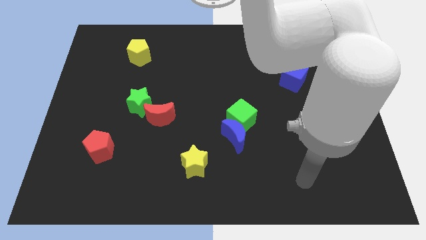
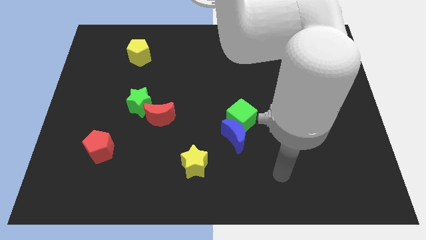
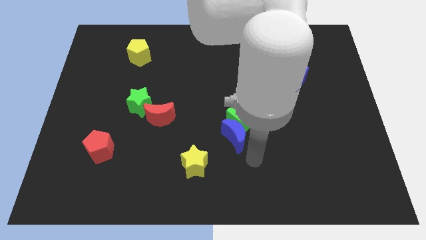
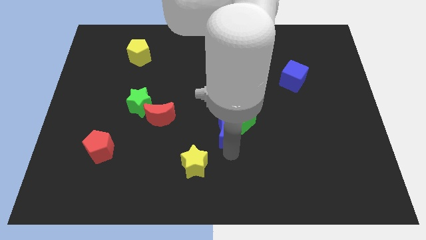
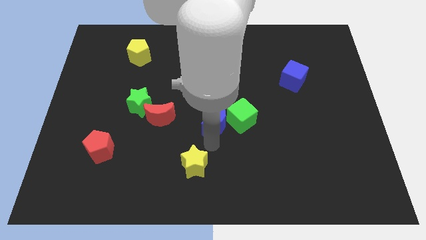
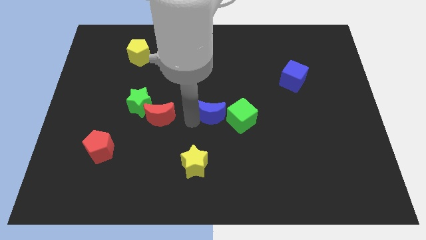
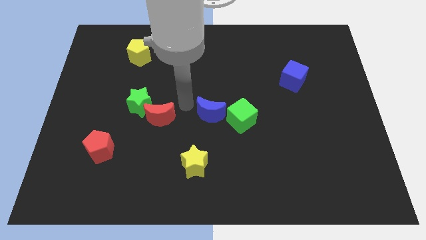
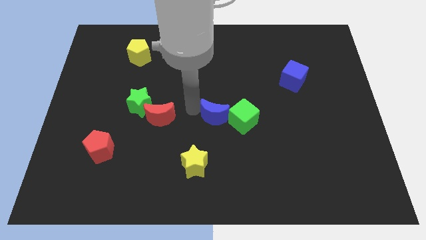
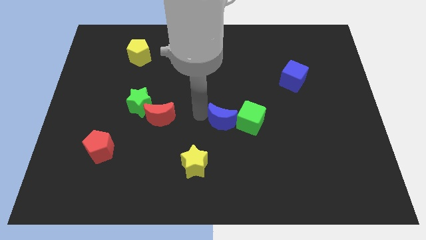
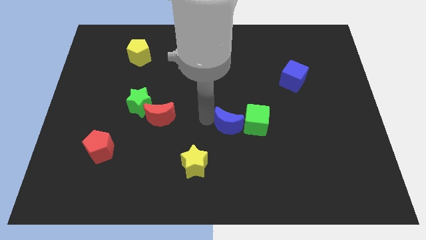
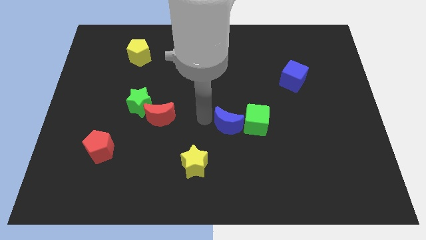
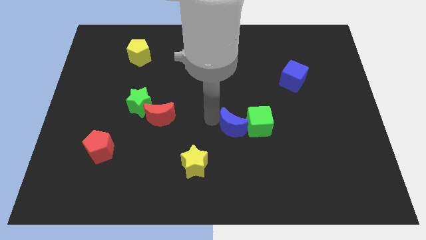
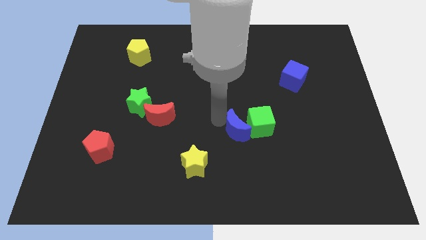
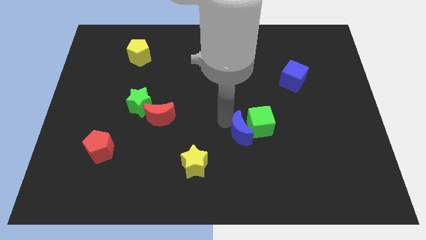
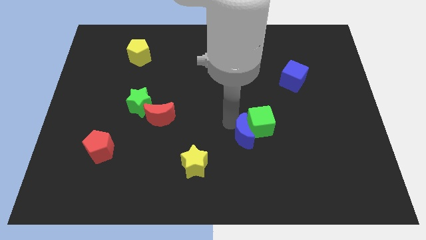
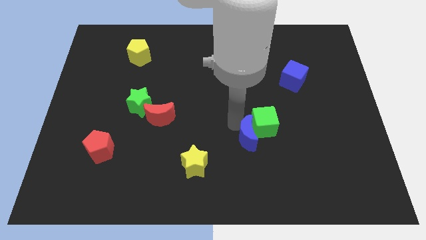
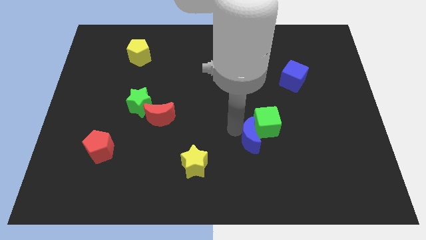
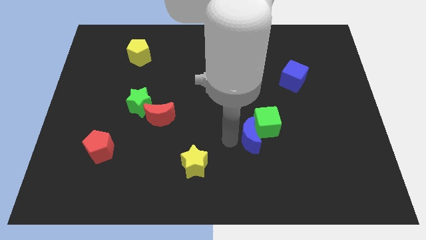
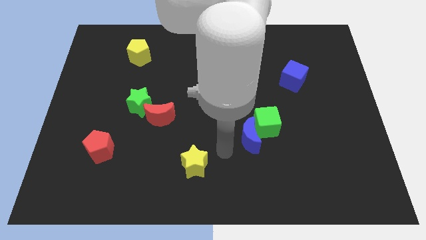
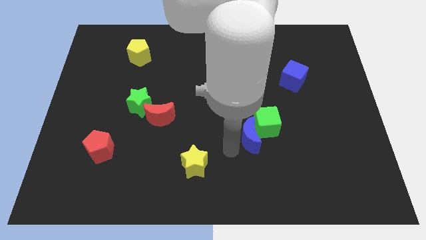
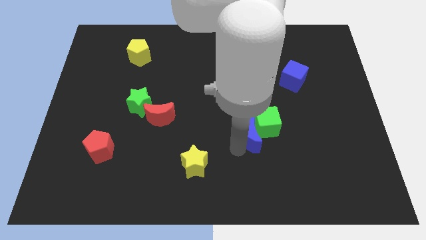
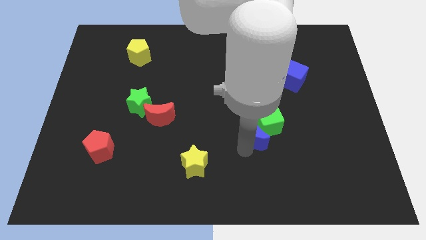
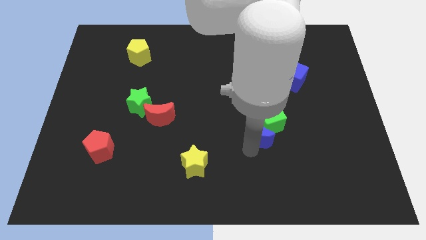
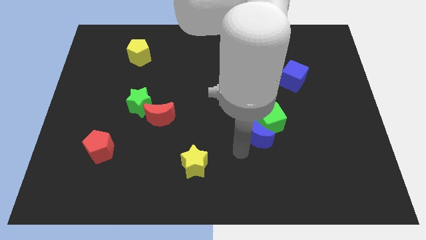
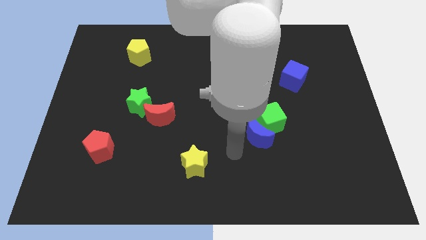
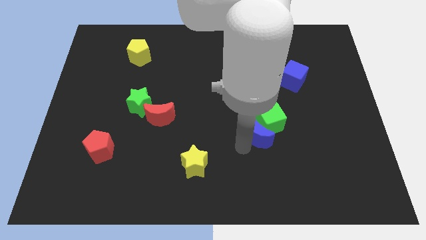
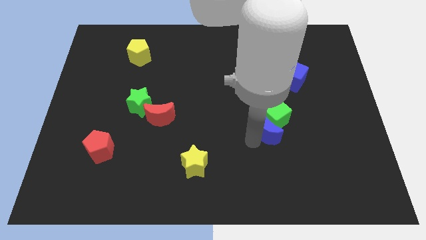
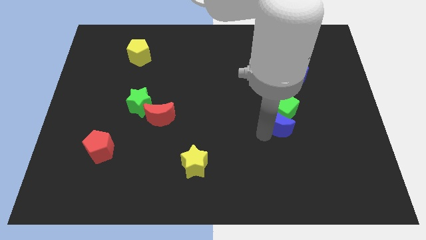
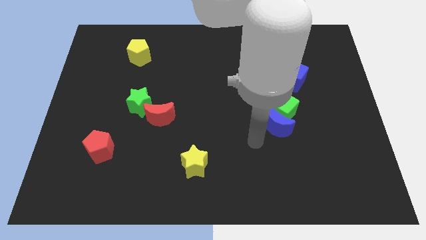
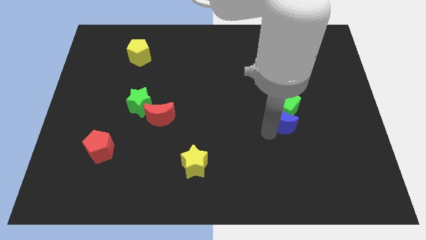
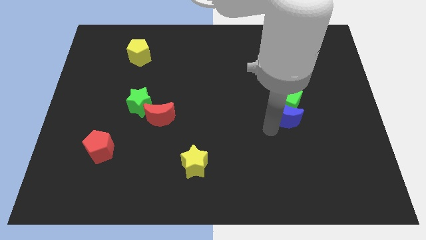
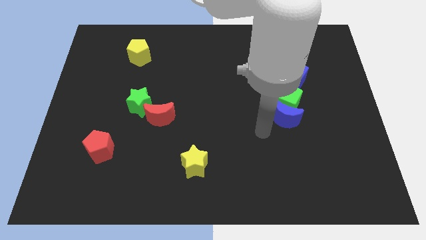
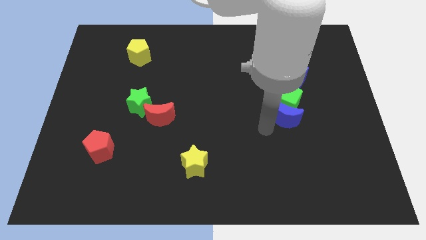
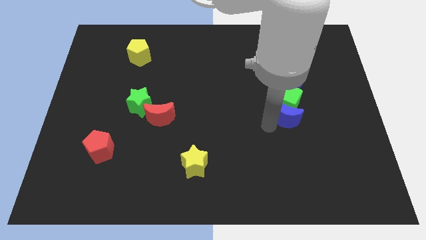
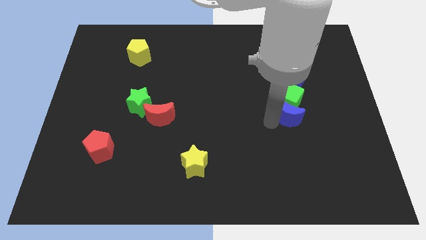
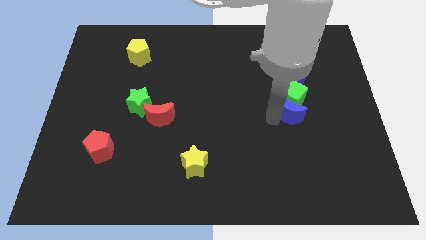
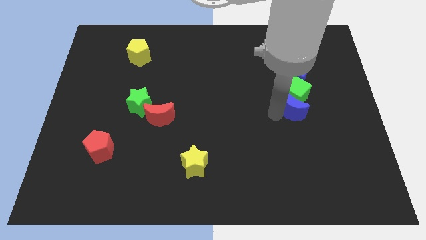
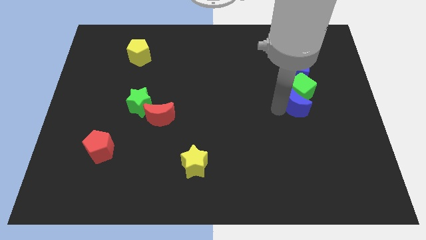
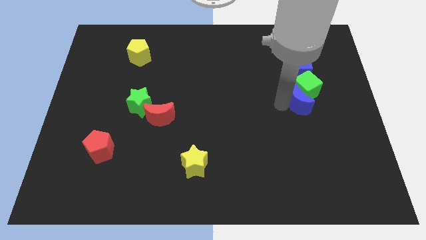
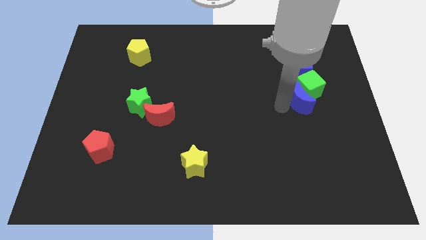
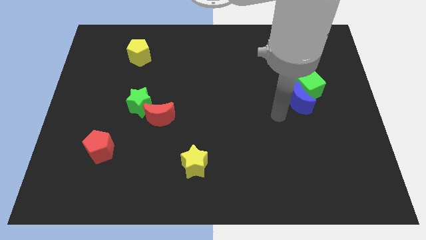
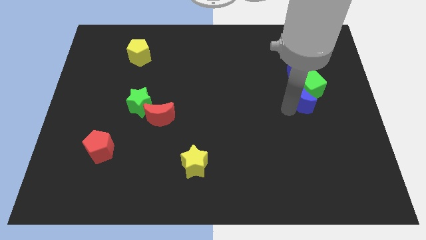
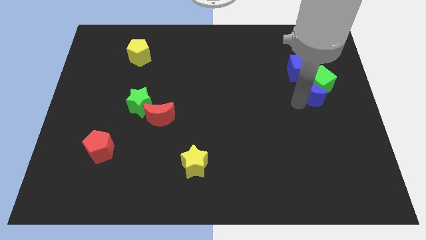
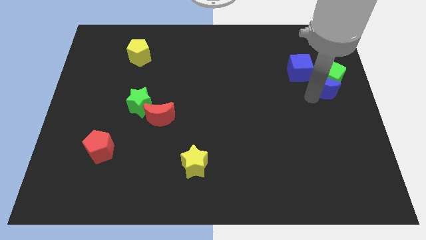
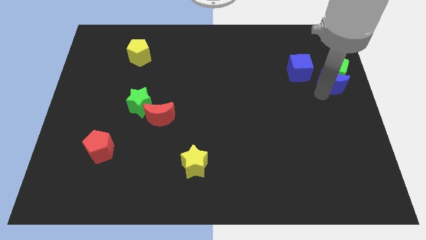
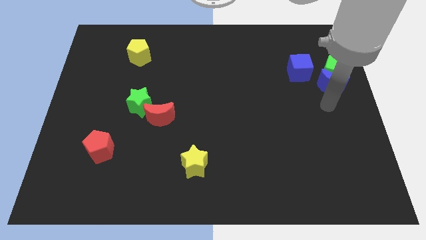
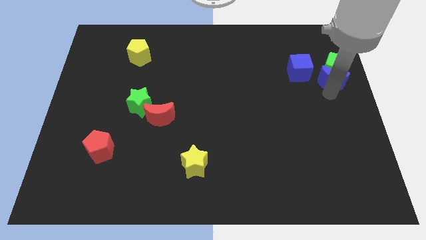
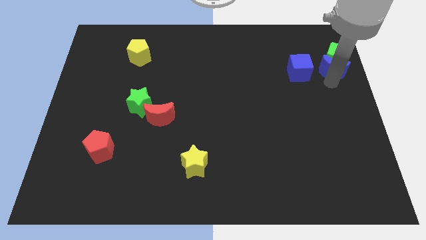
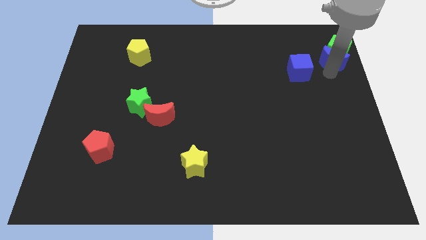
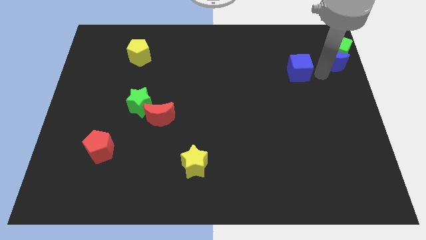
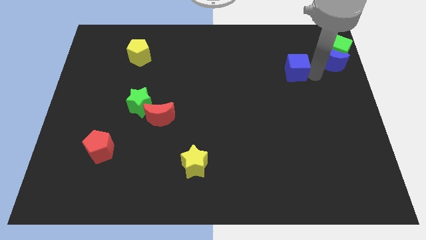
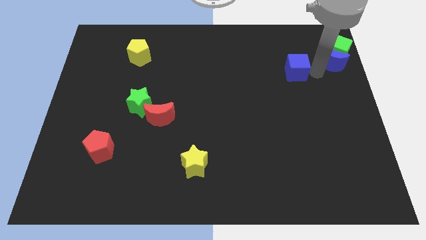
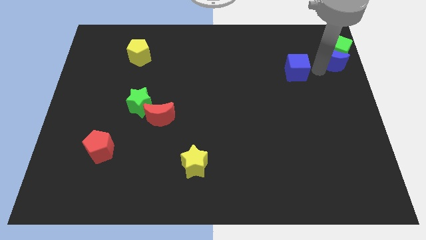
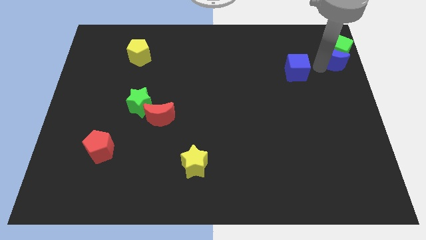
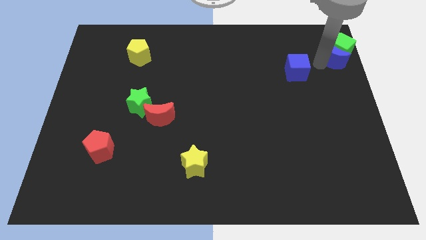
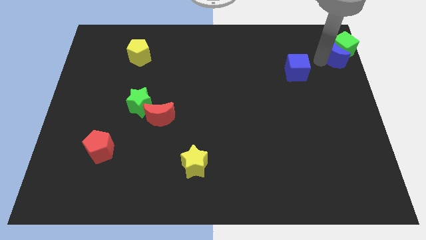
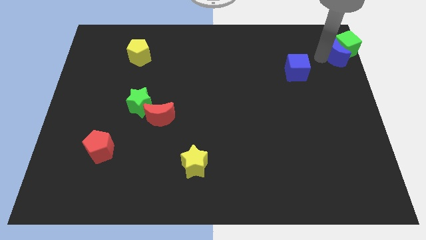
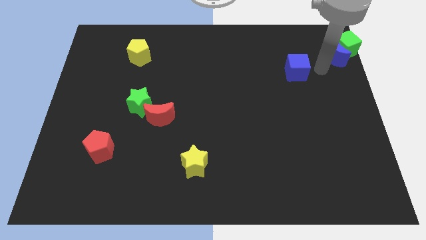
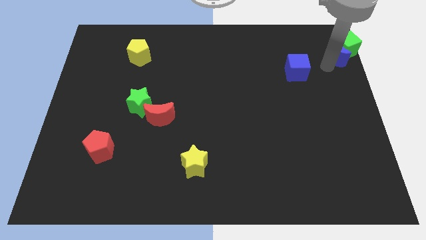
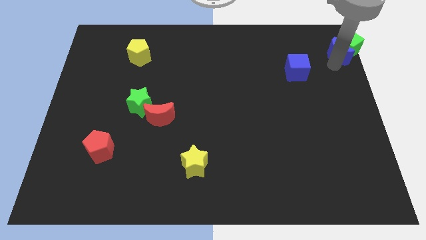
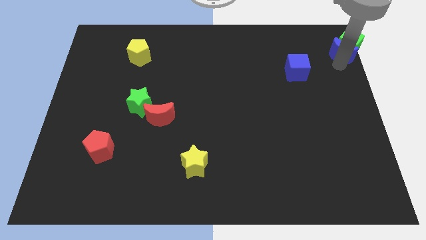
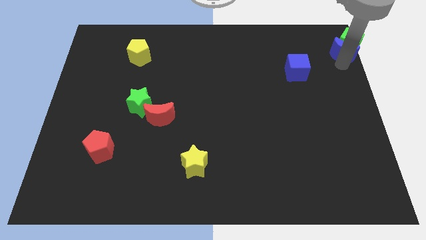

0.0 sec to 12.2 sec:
move the blue moon to the top right corner

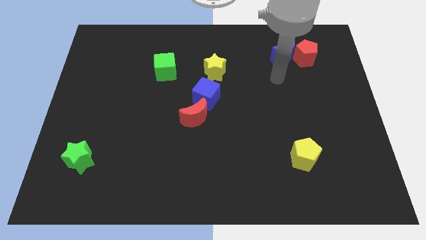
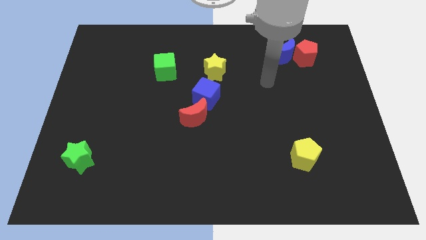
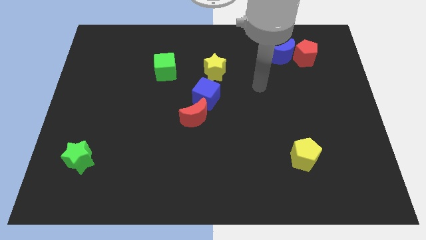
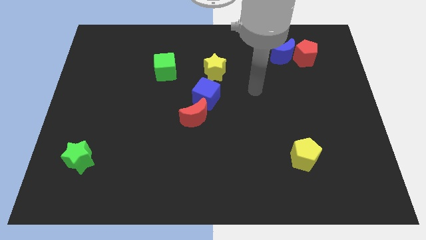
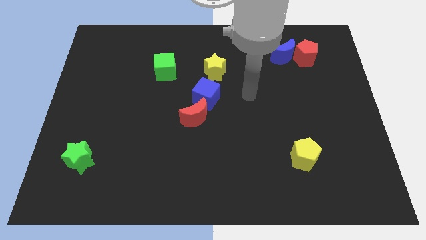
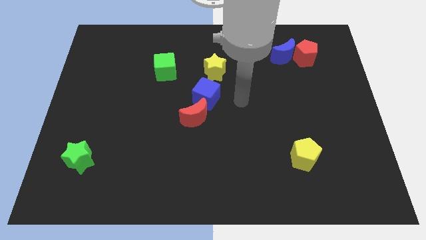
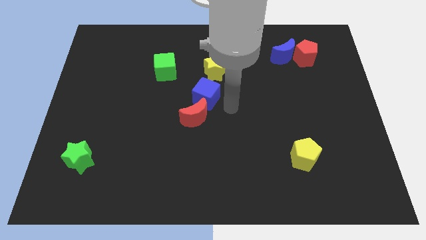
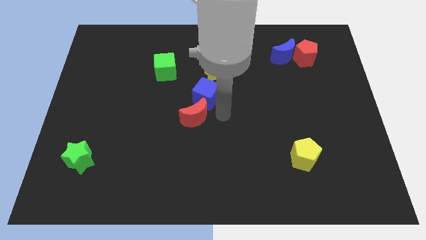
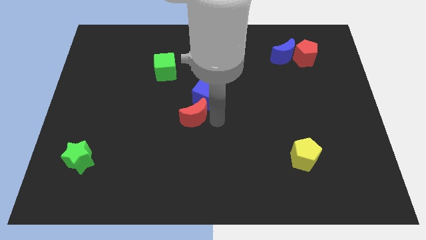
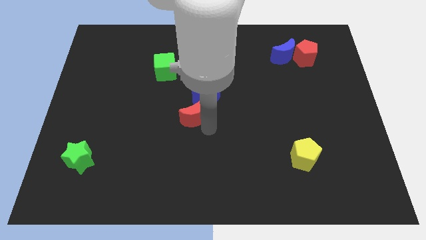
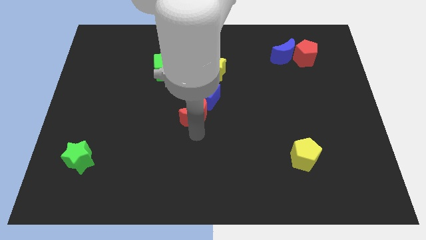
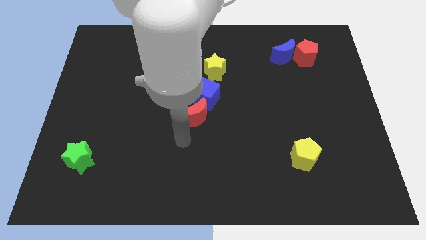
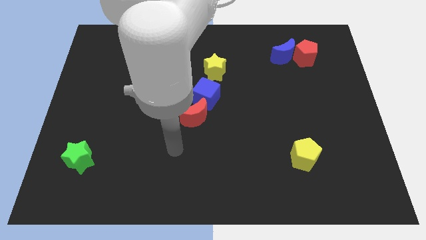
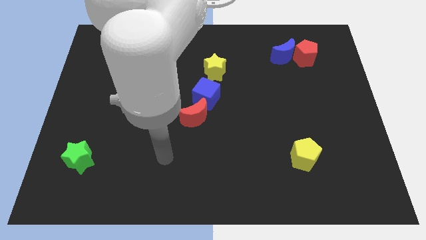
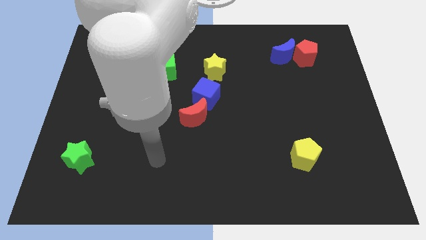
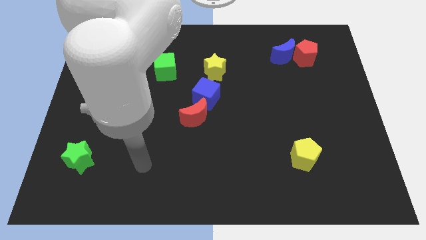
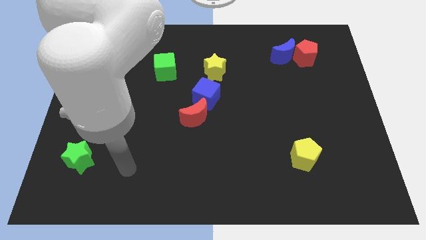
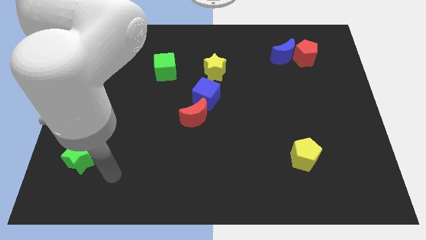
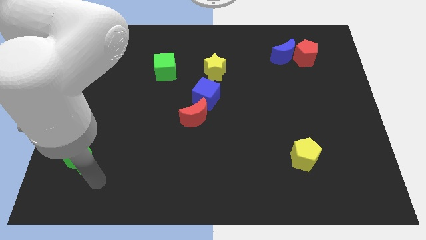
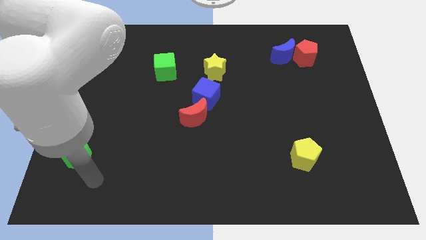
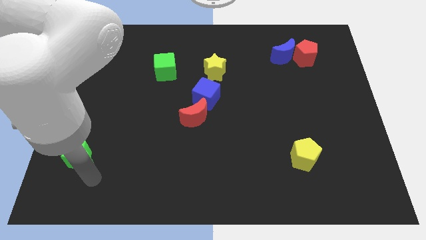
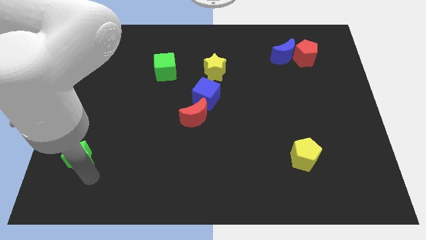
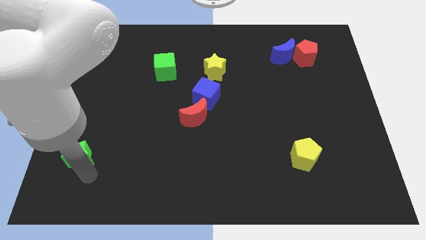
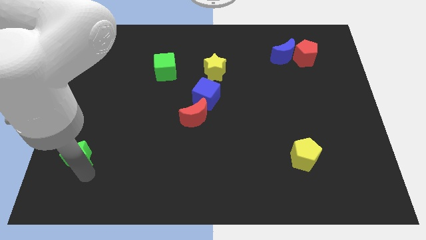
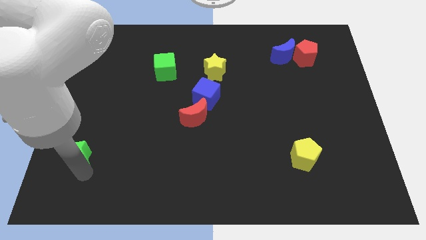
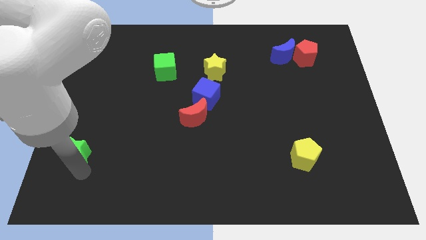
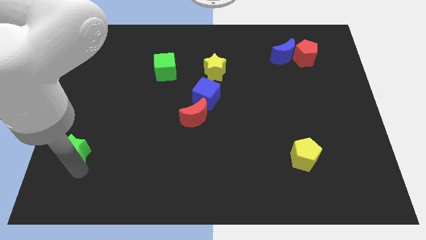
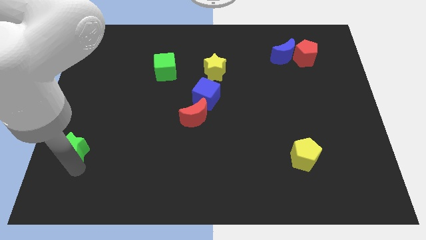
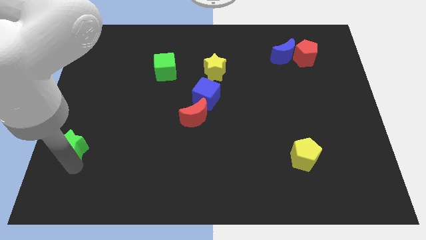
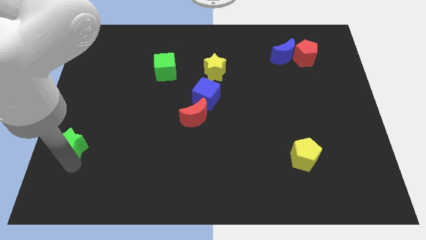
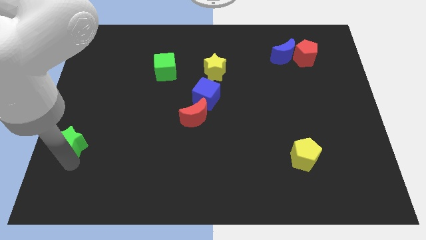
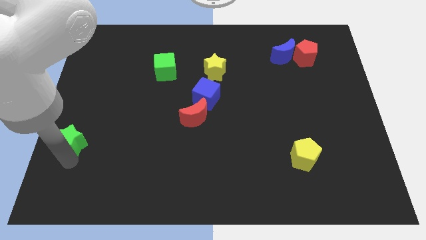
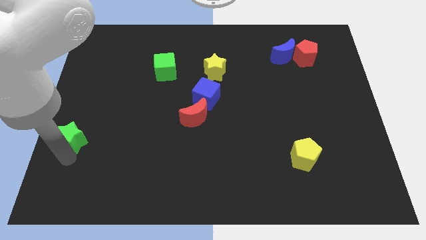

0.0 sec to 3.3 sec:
slide the green star to the left side of the board
